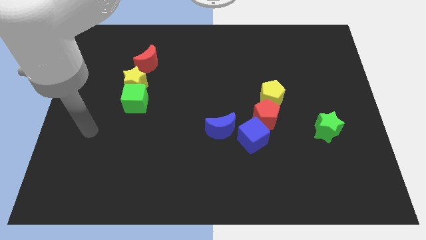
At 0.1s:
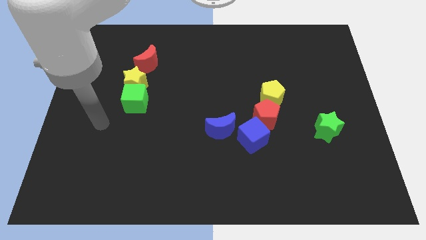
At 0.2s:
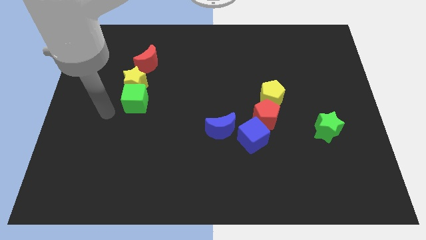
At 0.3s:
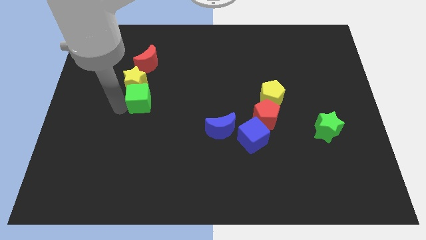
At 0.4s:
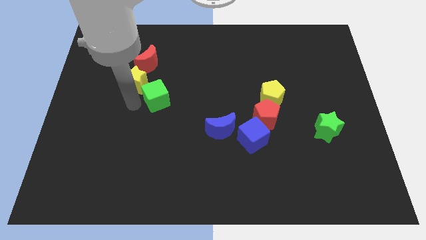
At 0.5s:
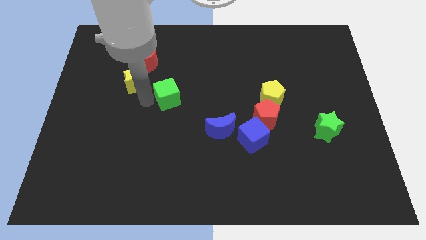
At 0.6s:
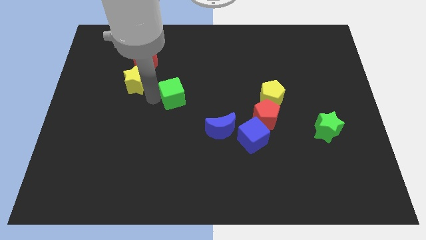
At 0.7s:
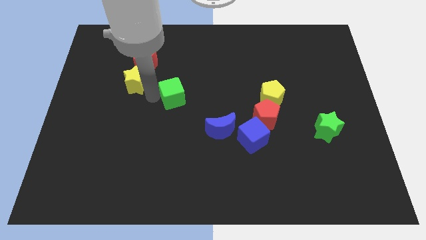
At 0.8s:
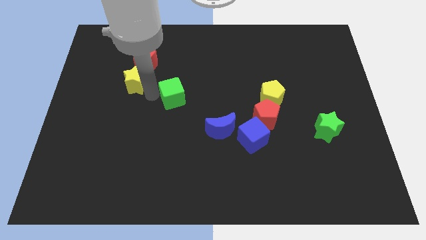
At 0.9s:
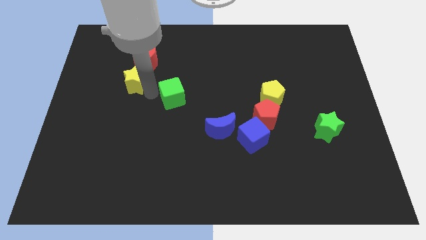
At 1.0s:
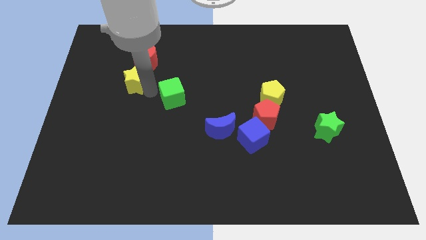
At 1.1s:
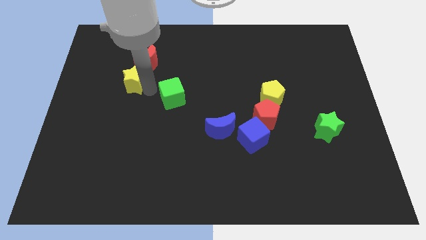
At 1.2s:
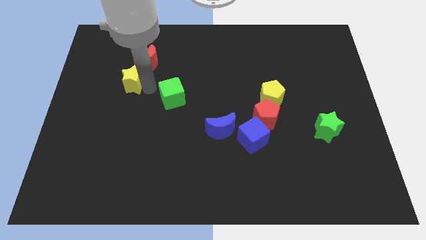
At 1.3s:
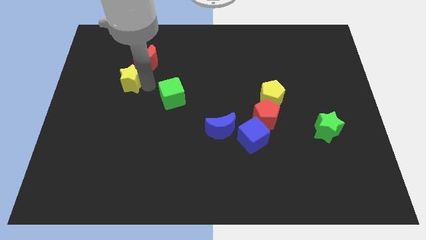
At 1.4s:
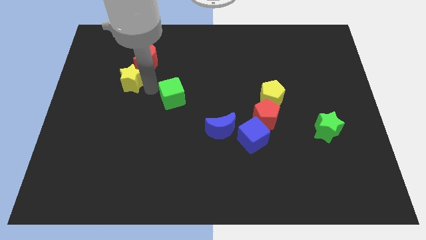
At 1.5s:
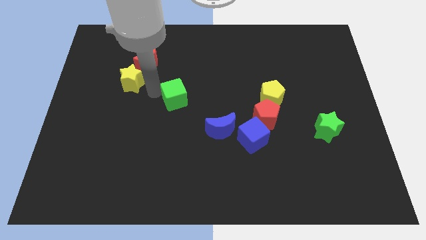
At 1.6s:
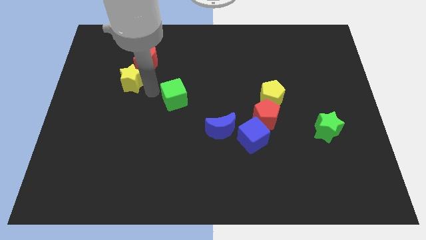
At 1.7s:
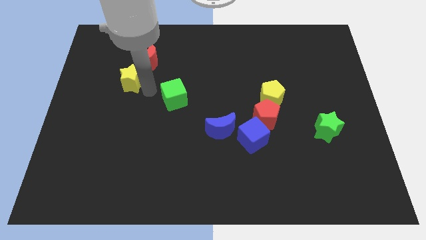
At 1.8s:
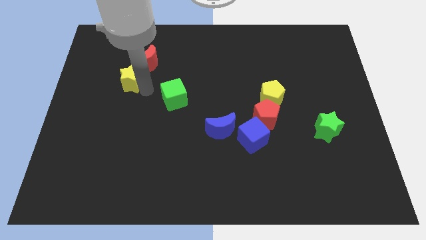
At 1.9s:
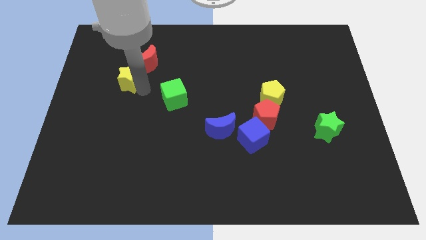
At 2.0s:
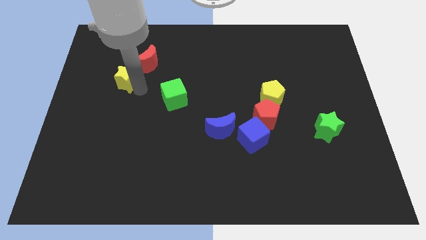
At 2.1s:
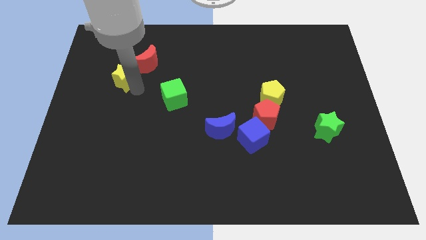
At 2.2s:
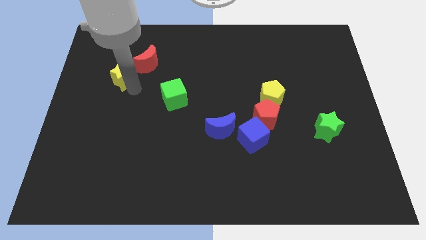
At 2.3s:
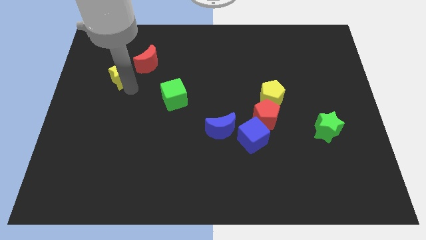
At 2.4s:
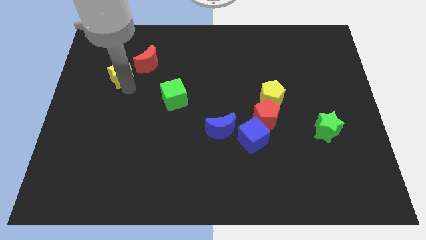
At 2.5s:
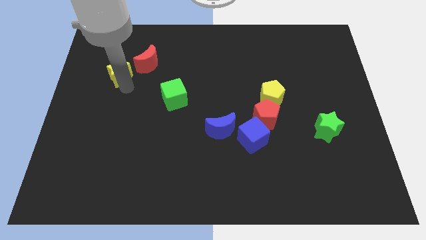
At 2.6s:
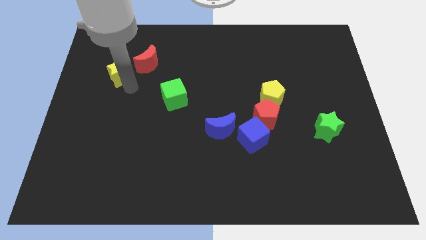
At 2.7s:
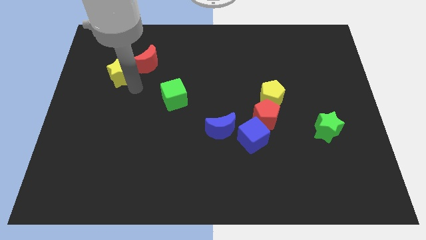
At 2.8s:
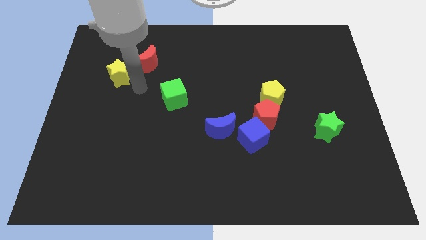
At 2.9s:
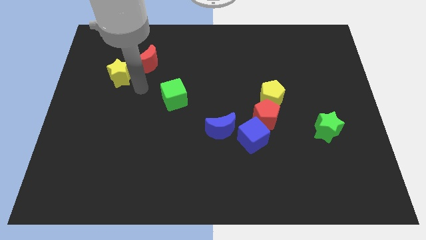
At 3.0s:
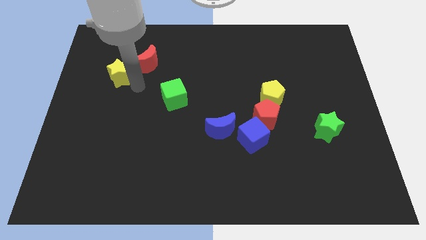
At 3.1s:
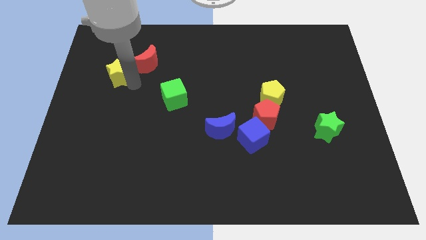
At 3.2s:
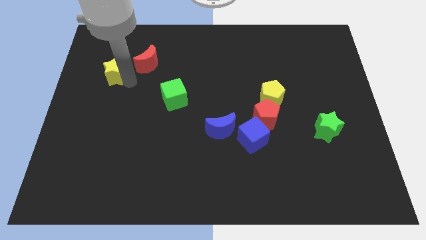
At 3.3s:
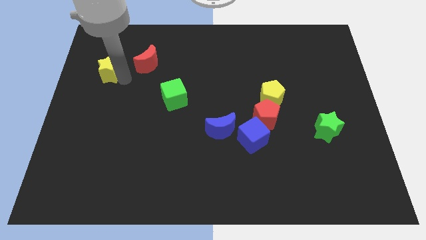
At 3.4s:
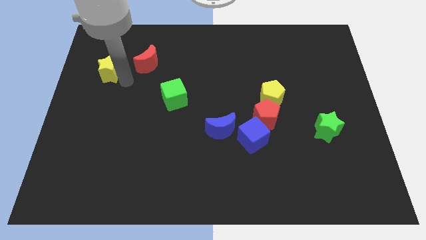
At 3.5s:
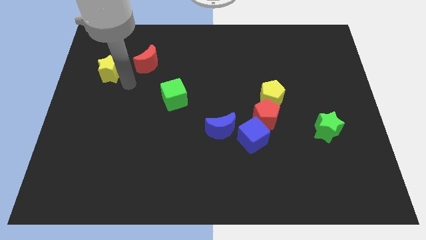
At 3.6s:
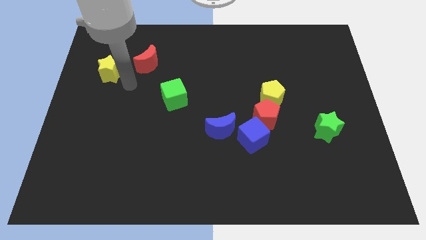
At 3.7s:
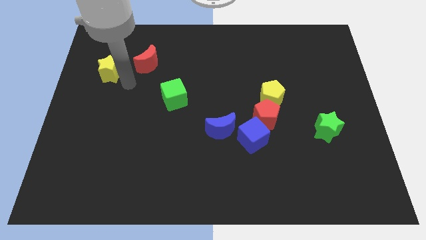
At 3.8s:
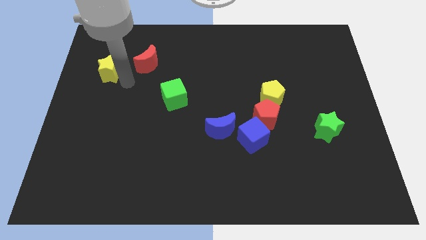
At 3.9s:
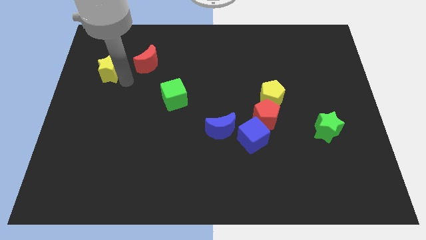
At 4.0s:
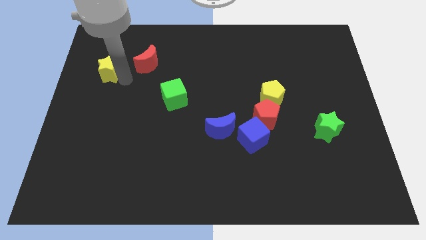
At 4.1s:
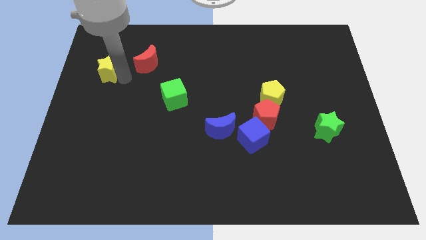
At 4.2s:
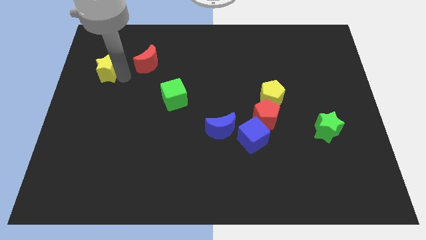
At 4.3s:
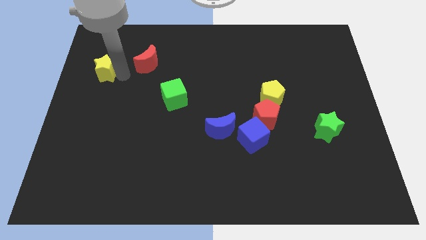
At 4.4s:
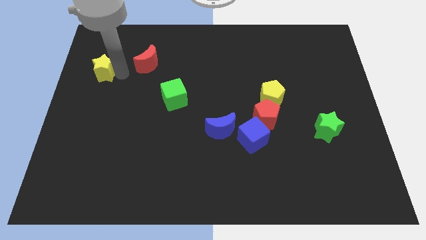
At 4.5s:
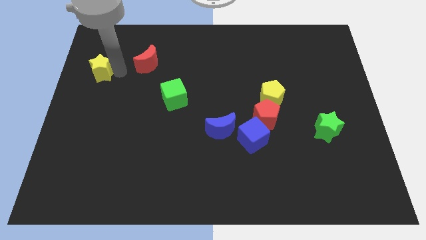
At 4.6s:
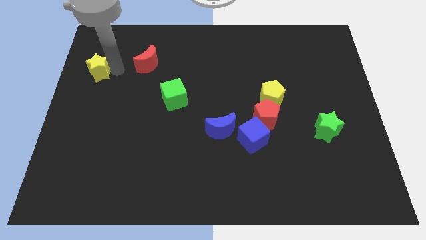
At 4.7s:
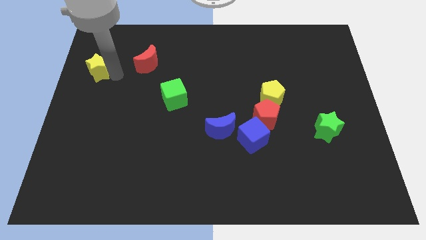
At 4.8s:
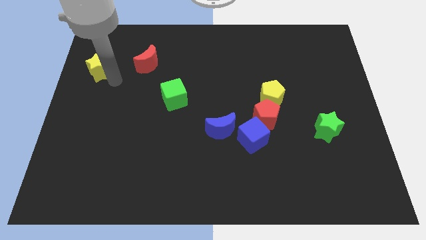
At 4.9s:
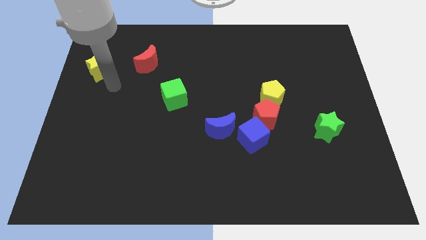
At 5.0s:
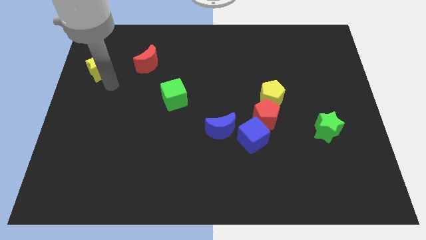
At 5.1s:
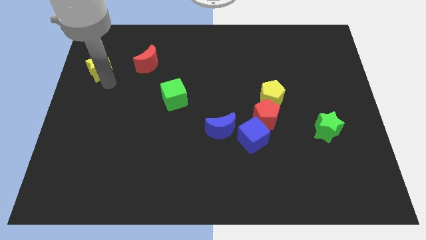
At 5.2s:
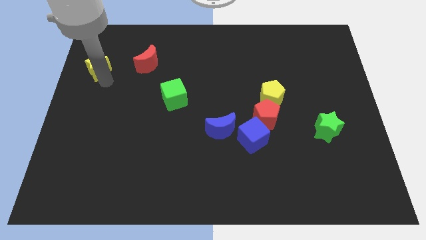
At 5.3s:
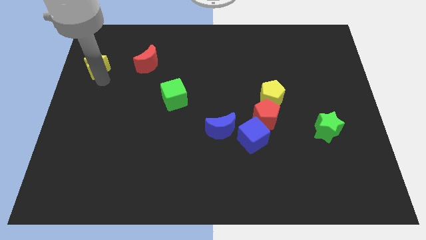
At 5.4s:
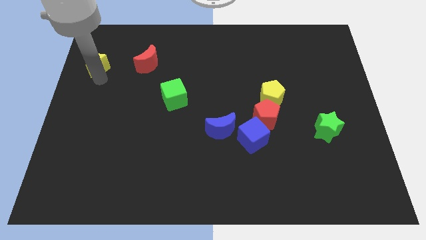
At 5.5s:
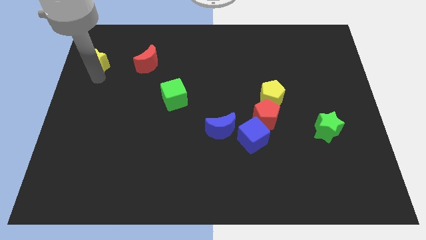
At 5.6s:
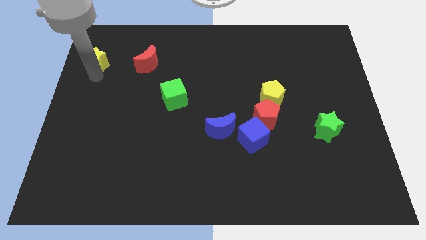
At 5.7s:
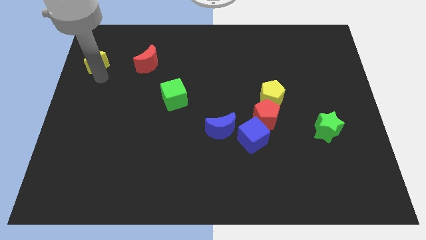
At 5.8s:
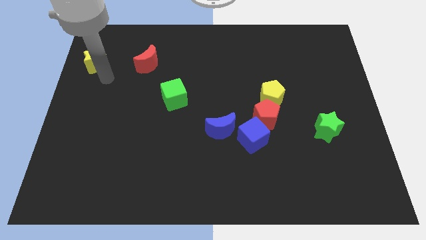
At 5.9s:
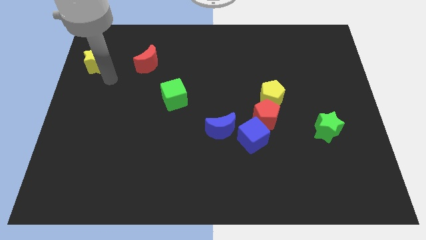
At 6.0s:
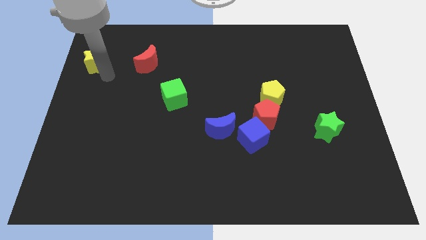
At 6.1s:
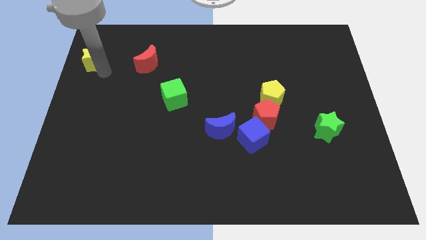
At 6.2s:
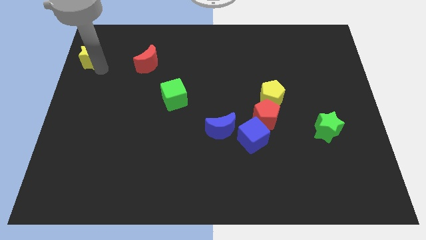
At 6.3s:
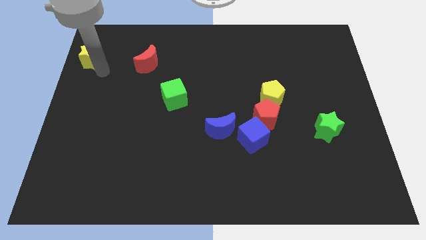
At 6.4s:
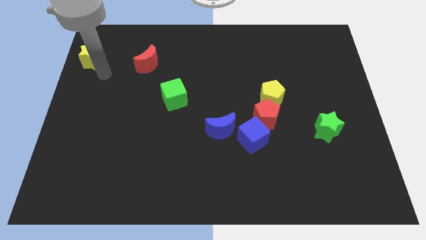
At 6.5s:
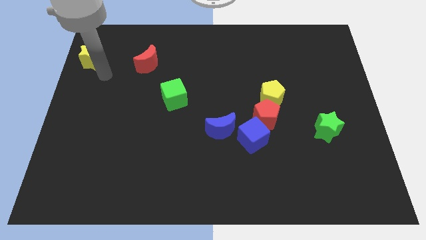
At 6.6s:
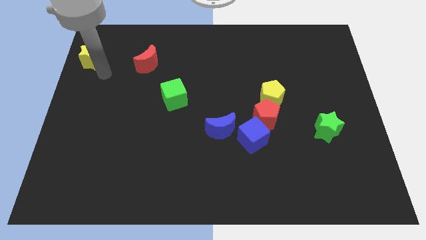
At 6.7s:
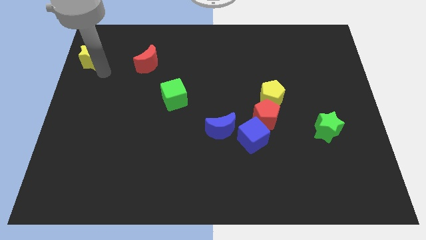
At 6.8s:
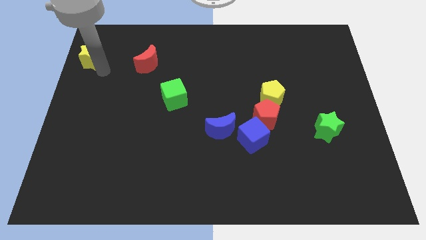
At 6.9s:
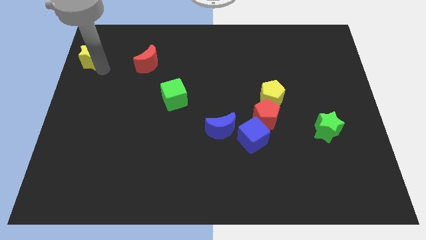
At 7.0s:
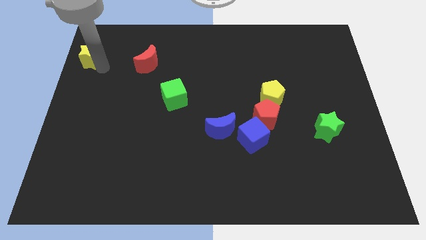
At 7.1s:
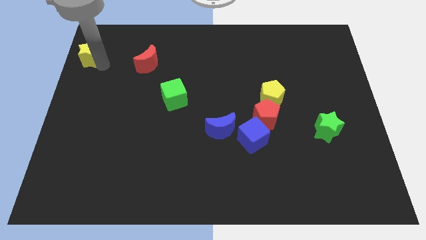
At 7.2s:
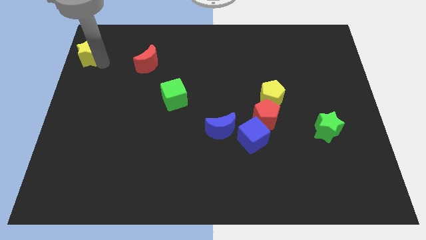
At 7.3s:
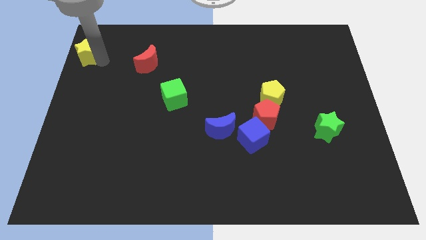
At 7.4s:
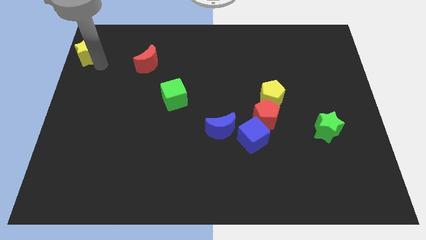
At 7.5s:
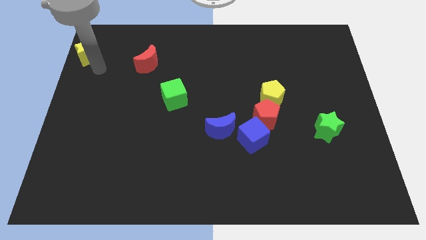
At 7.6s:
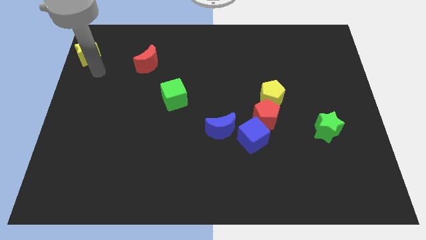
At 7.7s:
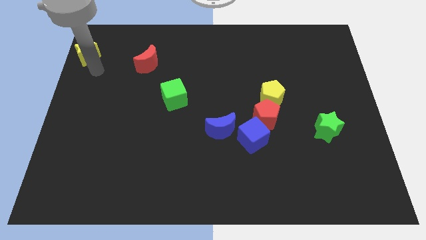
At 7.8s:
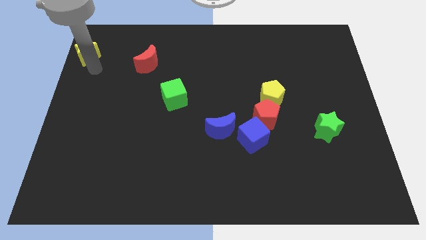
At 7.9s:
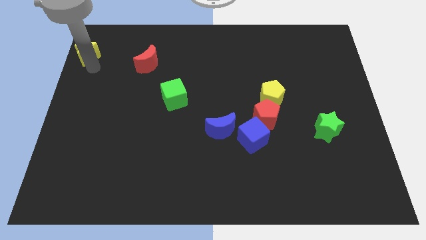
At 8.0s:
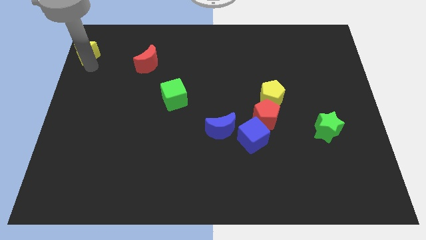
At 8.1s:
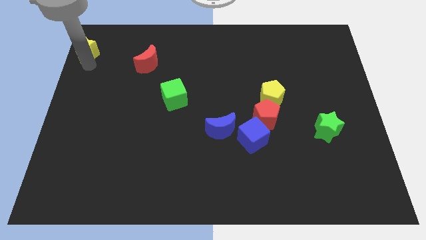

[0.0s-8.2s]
push the yellow star to the top left
